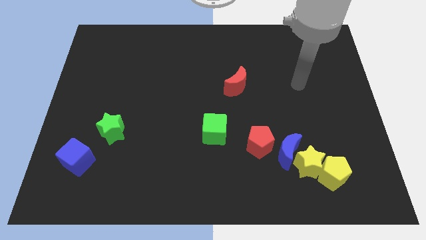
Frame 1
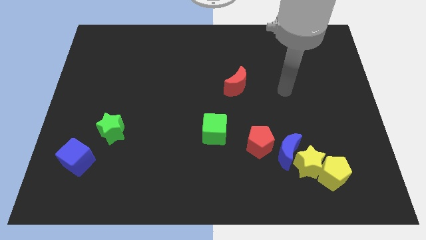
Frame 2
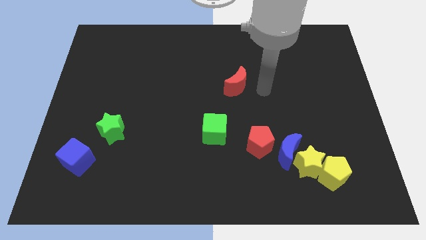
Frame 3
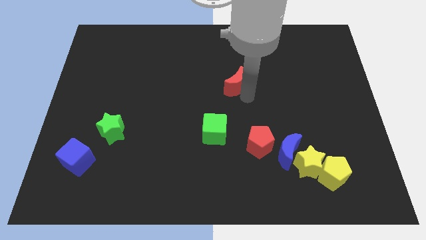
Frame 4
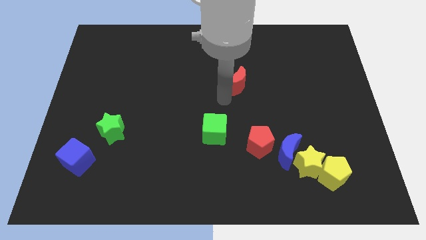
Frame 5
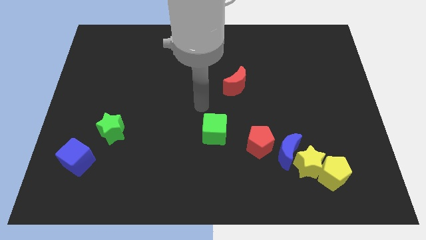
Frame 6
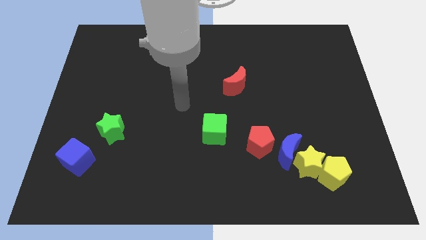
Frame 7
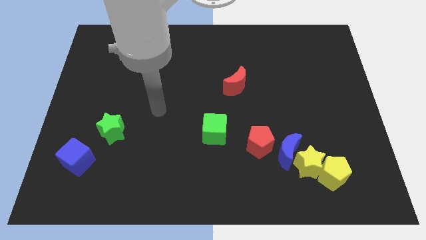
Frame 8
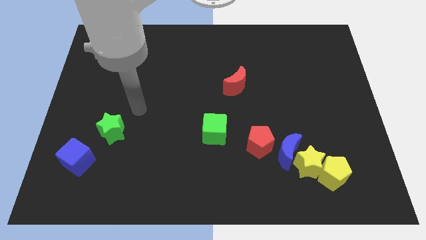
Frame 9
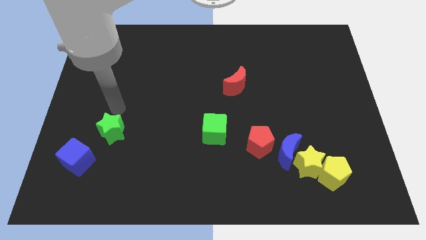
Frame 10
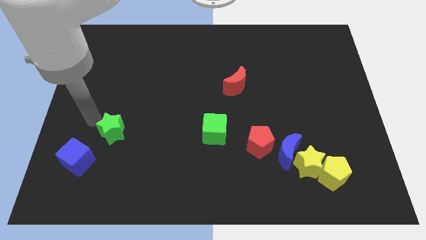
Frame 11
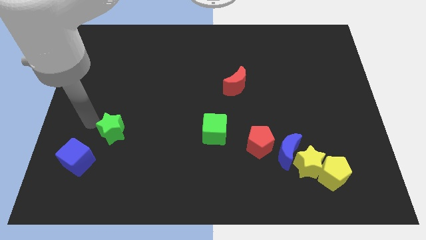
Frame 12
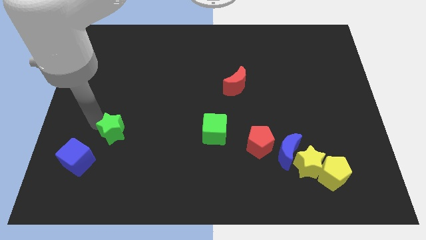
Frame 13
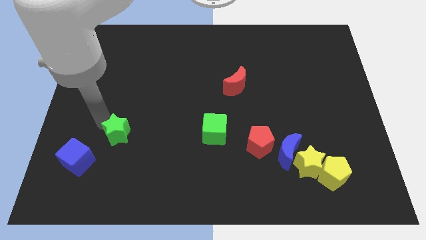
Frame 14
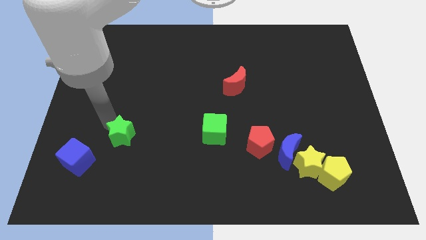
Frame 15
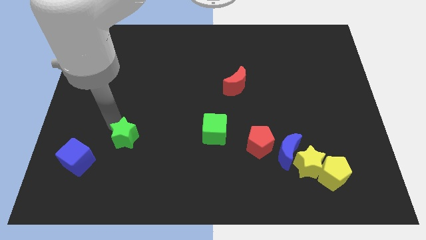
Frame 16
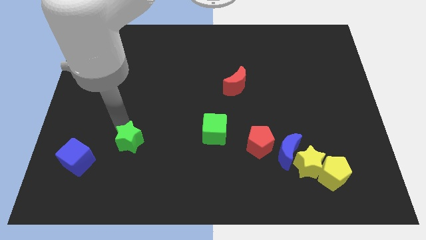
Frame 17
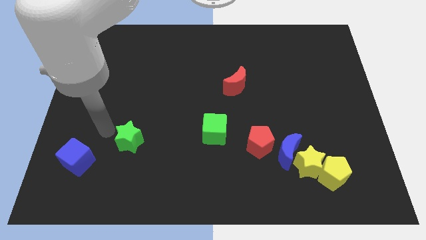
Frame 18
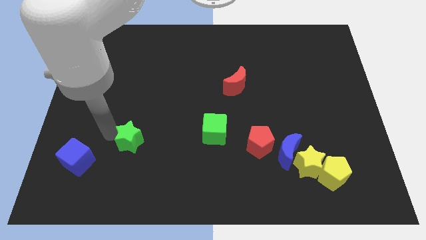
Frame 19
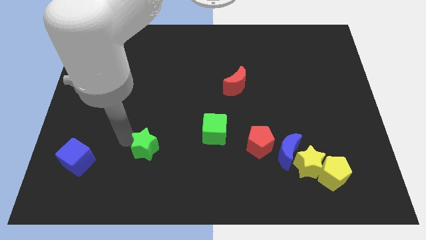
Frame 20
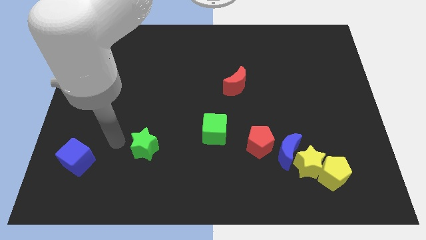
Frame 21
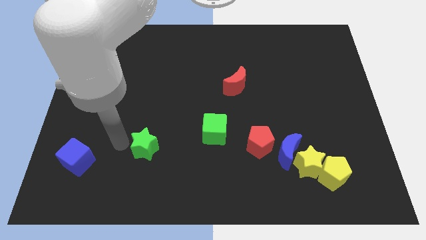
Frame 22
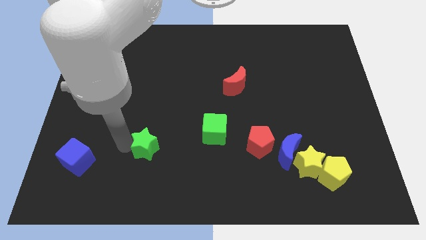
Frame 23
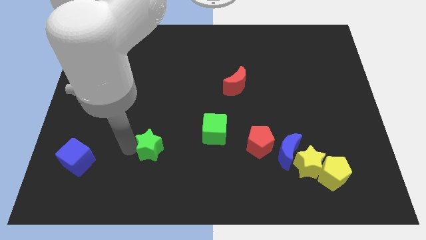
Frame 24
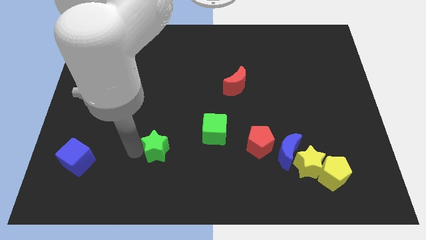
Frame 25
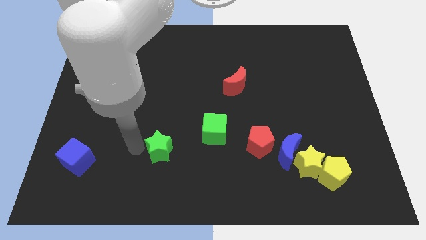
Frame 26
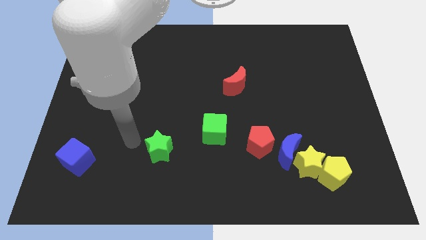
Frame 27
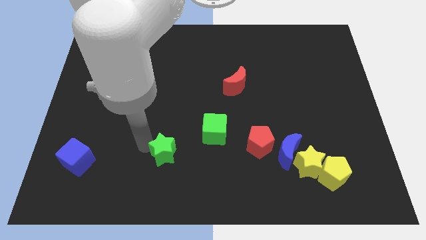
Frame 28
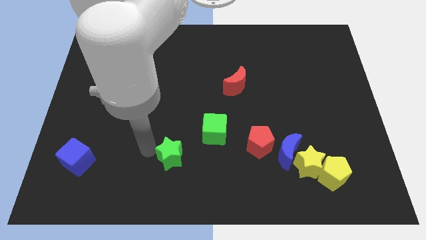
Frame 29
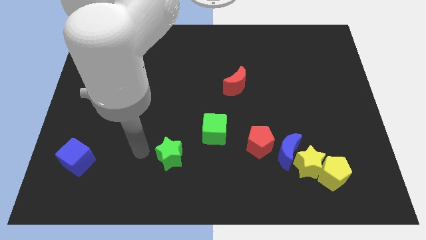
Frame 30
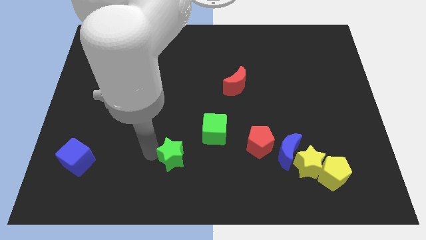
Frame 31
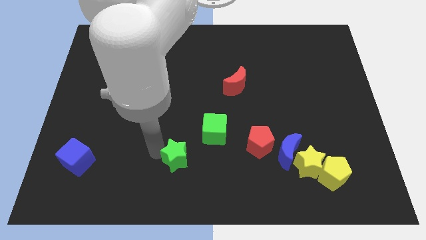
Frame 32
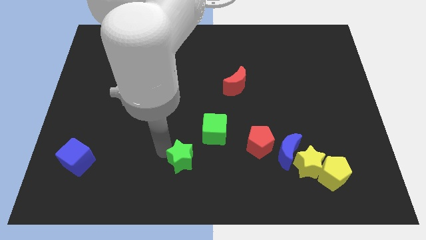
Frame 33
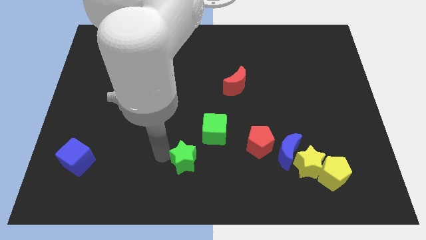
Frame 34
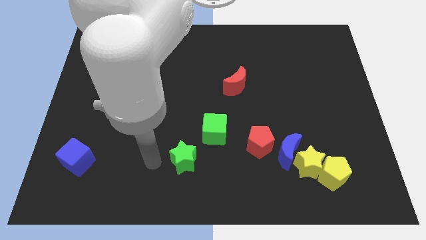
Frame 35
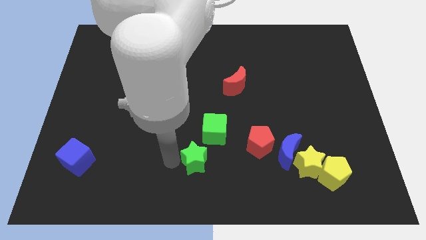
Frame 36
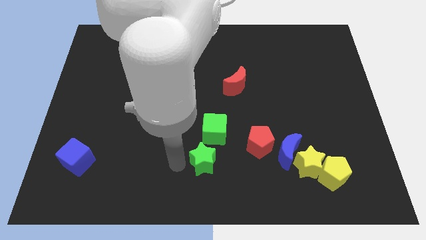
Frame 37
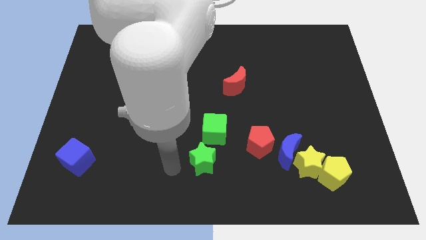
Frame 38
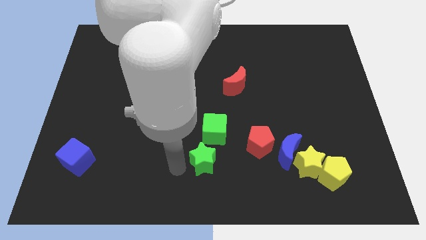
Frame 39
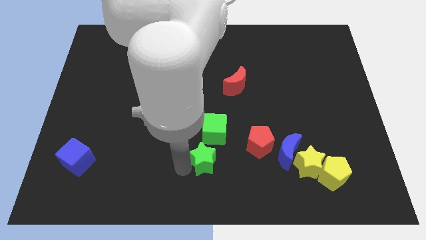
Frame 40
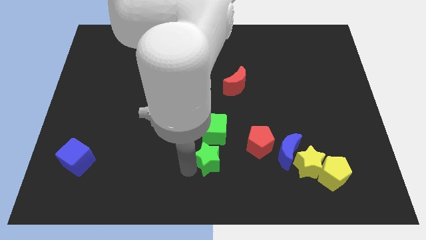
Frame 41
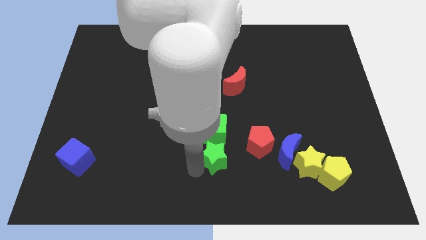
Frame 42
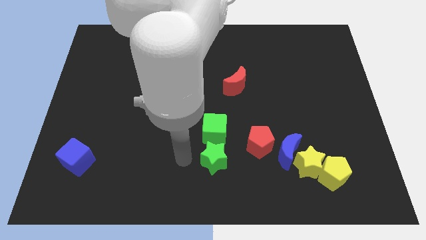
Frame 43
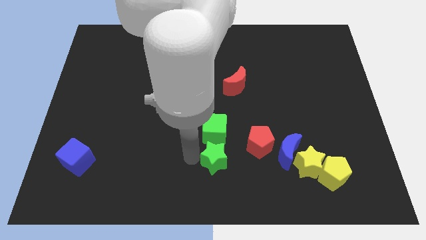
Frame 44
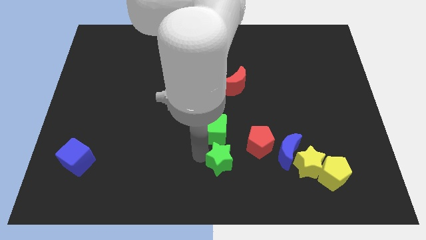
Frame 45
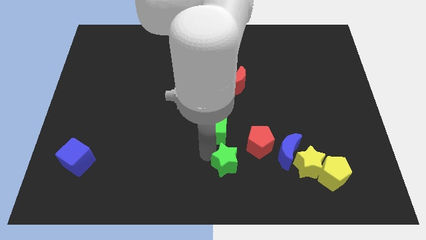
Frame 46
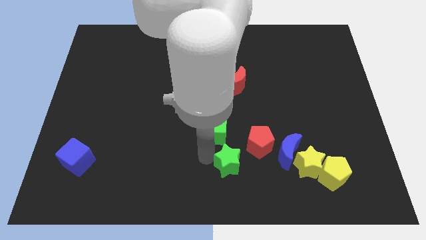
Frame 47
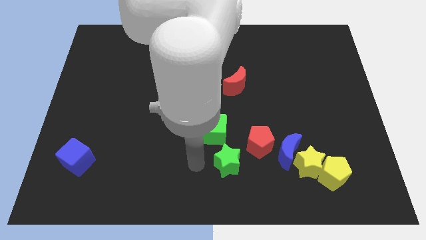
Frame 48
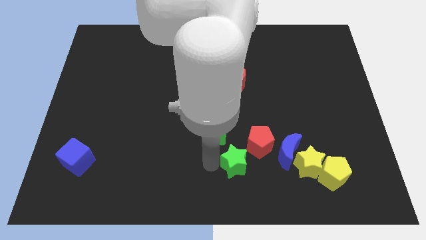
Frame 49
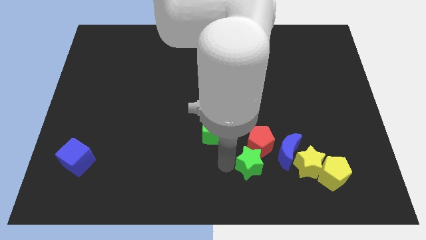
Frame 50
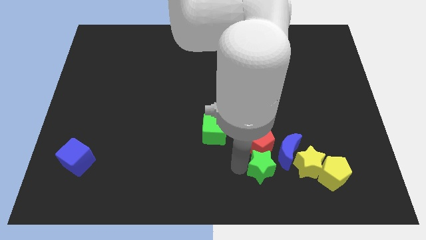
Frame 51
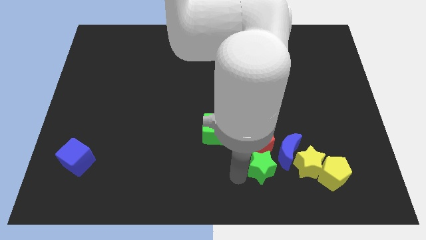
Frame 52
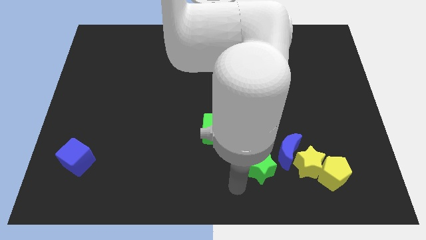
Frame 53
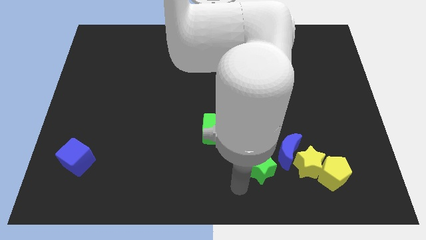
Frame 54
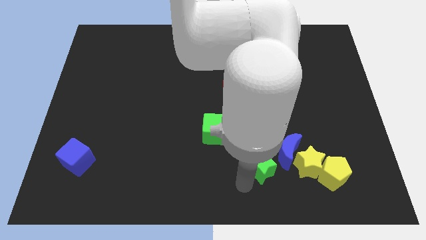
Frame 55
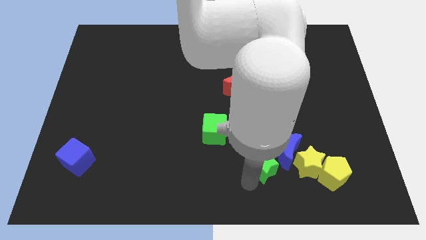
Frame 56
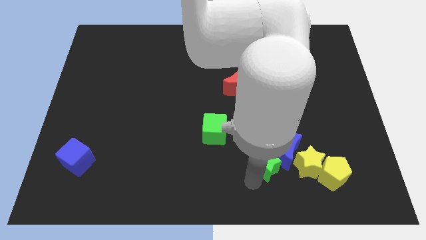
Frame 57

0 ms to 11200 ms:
put the green star close to the blue moon

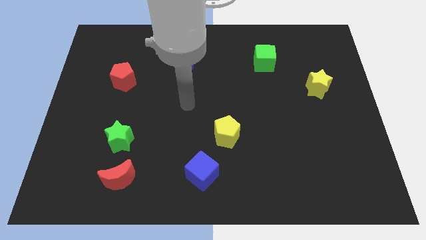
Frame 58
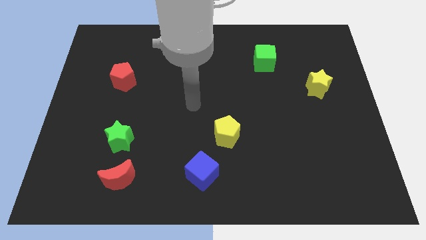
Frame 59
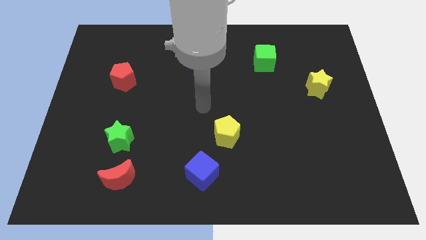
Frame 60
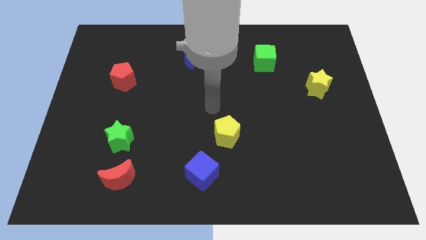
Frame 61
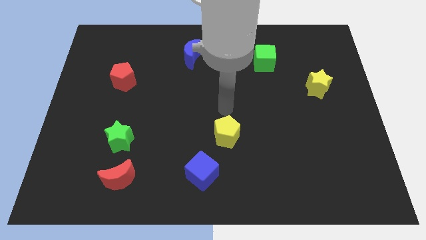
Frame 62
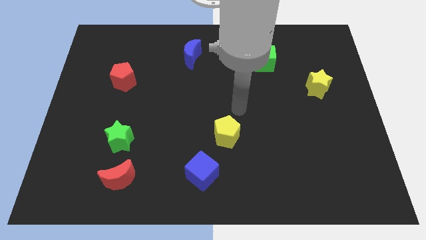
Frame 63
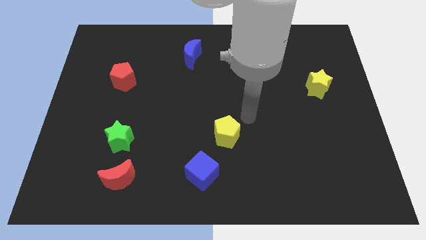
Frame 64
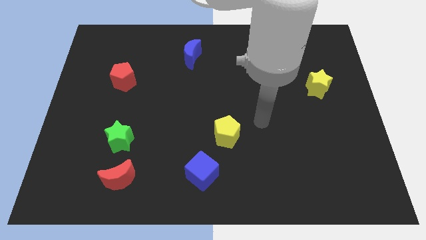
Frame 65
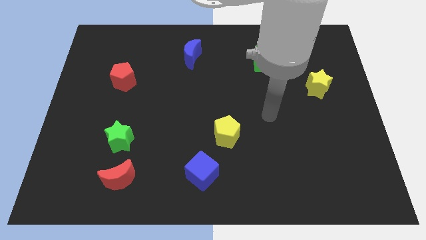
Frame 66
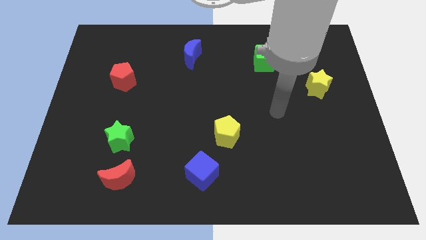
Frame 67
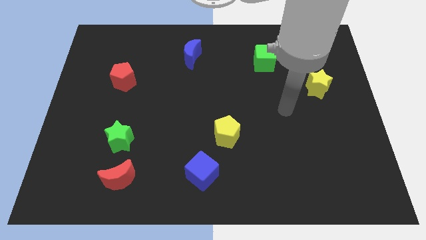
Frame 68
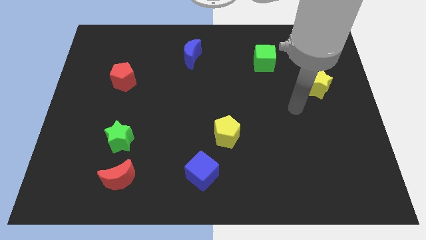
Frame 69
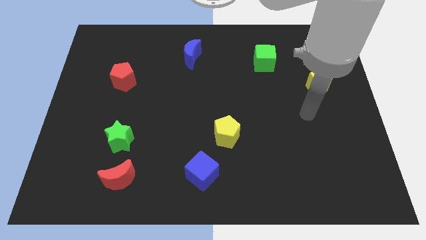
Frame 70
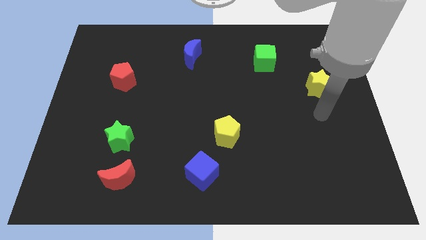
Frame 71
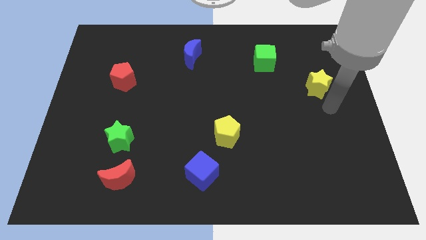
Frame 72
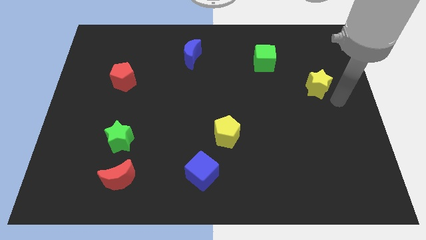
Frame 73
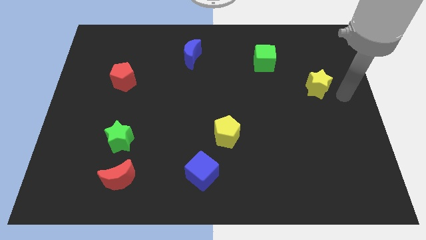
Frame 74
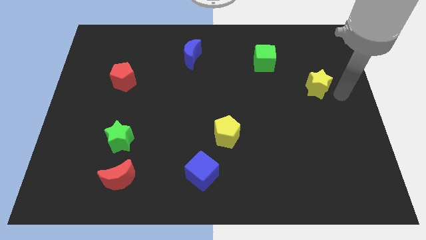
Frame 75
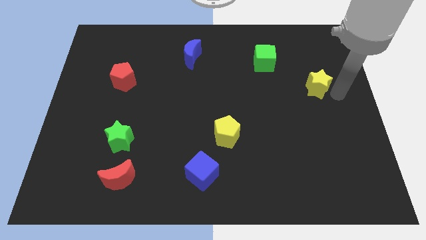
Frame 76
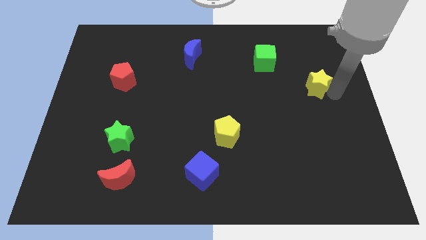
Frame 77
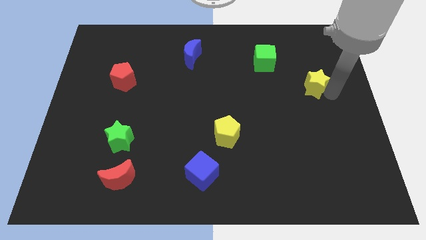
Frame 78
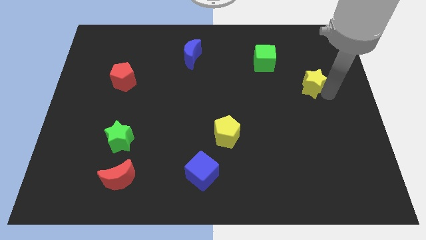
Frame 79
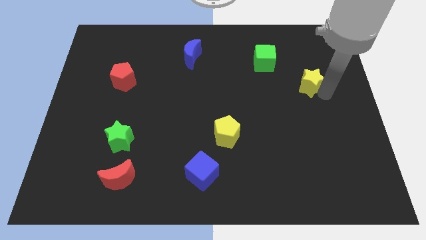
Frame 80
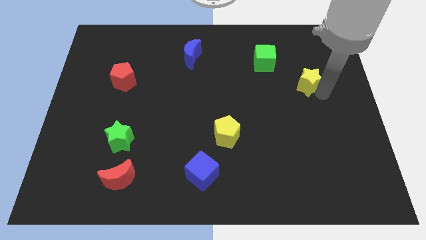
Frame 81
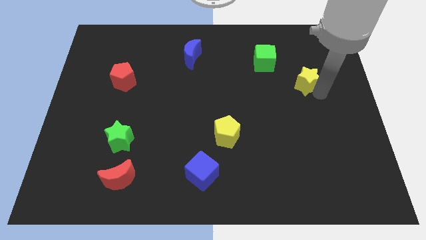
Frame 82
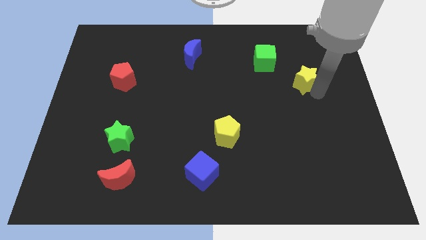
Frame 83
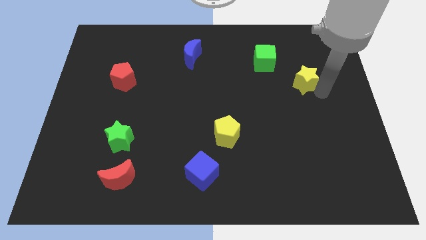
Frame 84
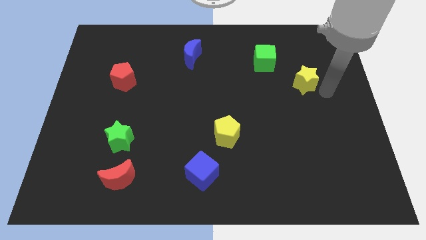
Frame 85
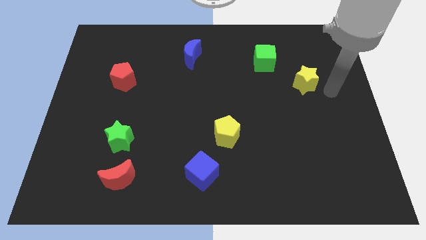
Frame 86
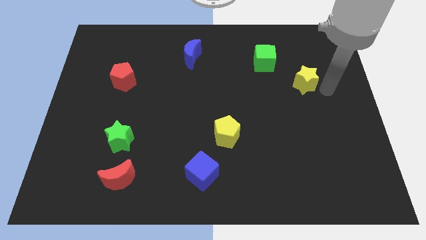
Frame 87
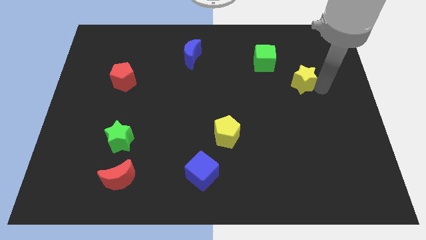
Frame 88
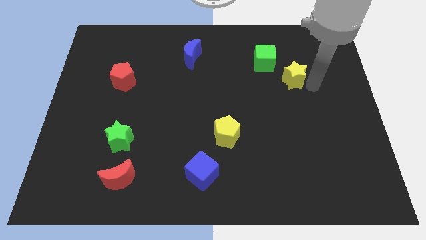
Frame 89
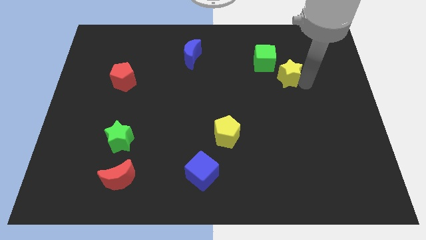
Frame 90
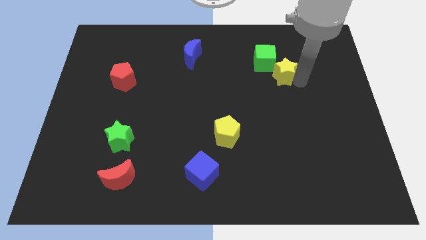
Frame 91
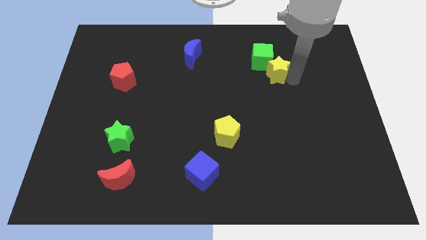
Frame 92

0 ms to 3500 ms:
put the yellow star next to the green cube
